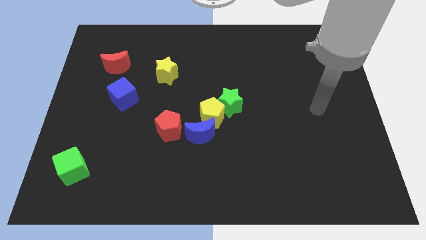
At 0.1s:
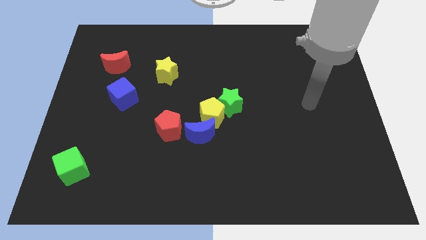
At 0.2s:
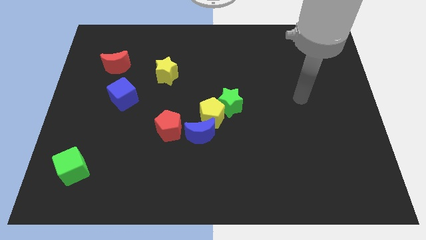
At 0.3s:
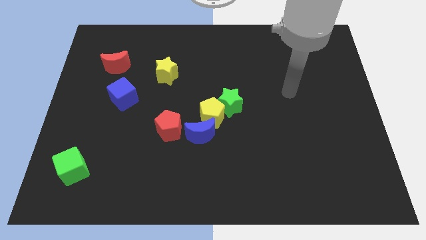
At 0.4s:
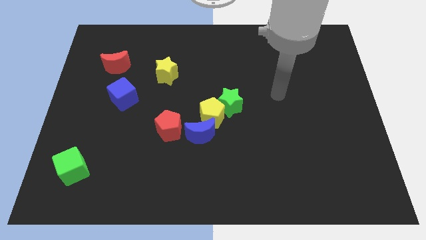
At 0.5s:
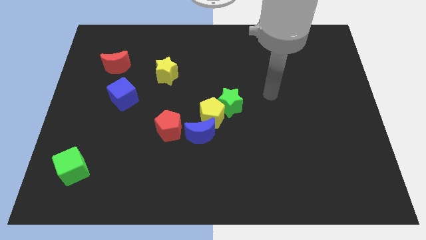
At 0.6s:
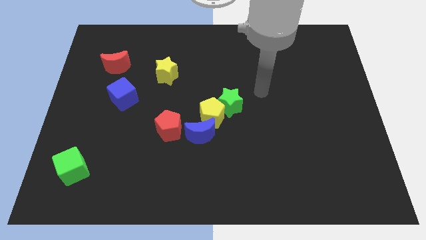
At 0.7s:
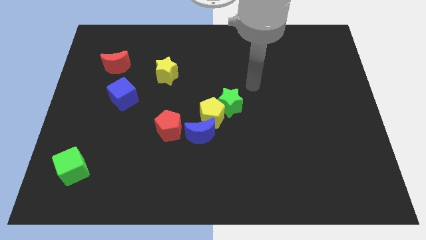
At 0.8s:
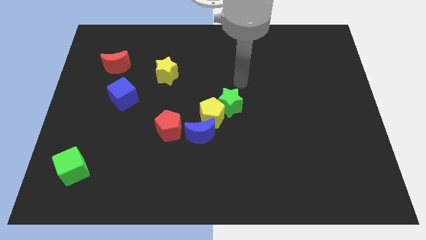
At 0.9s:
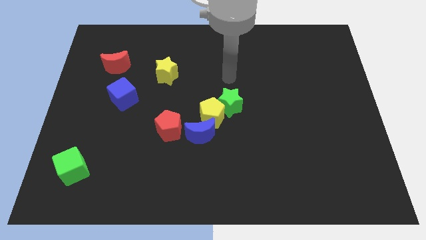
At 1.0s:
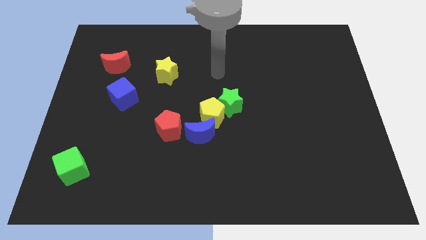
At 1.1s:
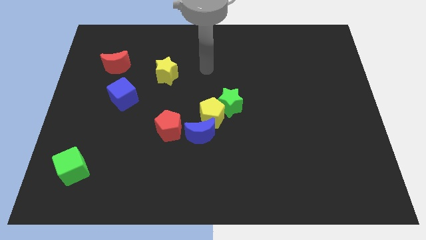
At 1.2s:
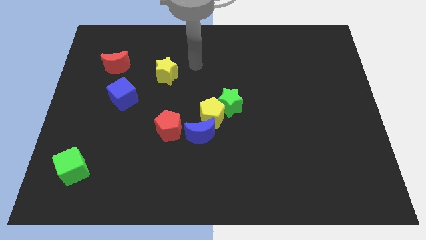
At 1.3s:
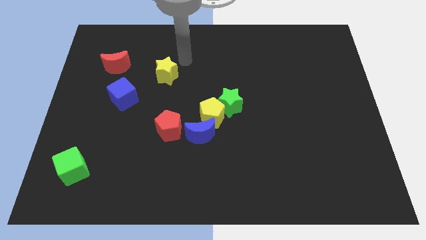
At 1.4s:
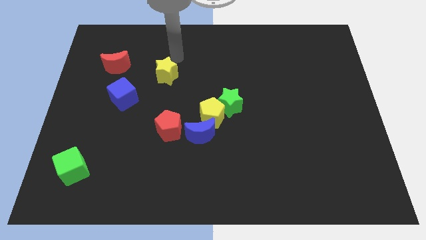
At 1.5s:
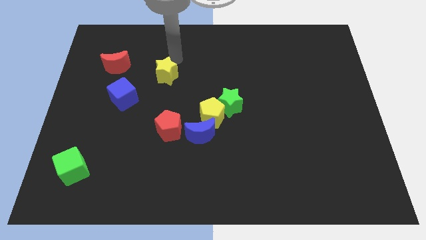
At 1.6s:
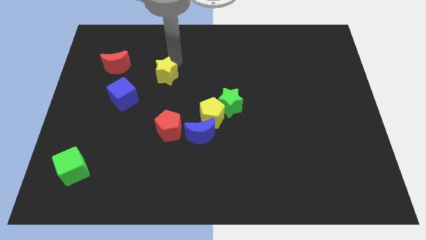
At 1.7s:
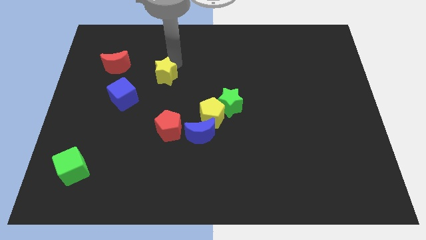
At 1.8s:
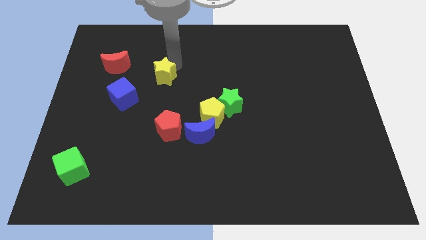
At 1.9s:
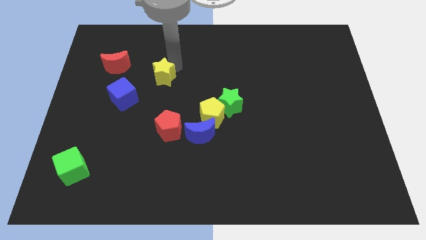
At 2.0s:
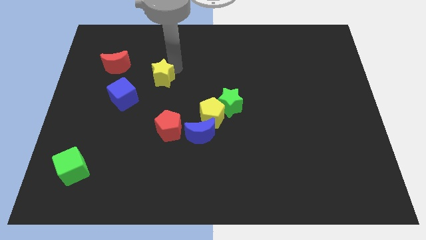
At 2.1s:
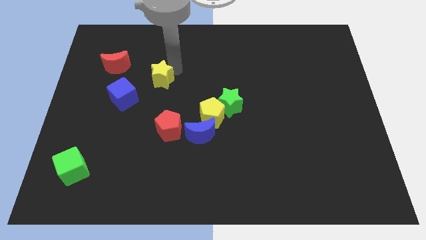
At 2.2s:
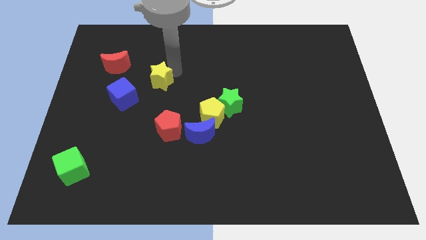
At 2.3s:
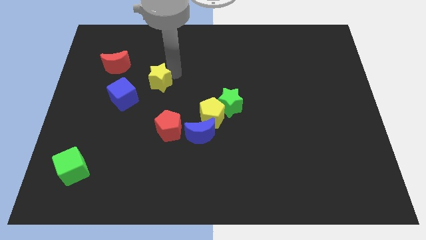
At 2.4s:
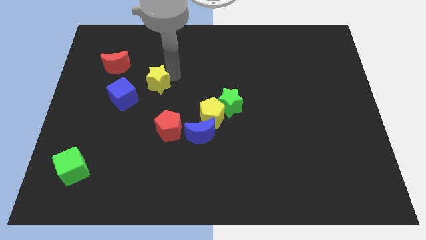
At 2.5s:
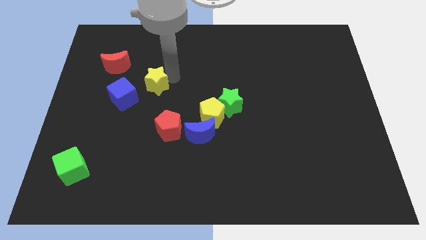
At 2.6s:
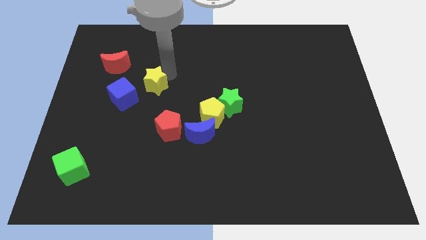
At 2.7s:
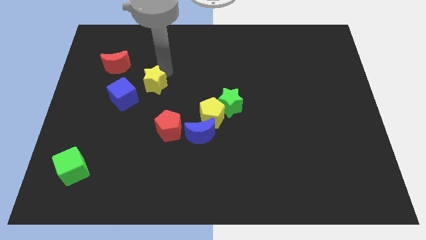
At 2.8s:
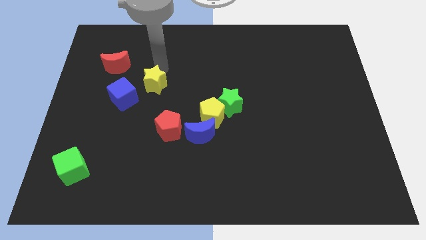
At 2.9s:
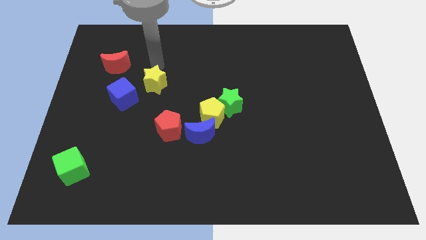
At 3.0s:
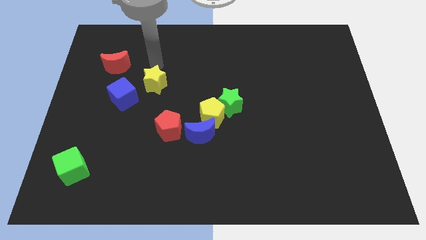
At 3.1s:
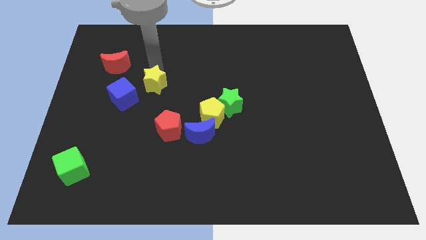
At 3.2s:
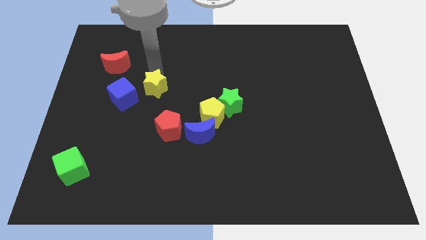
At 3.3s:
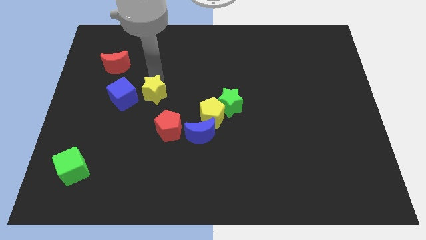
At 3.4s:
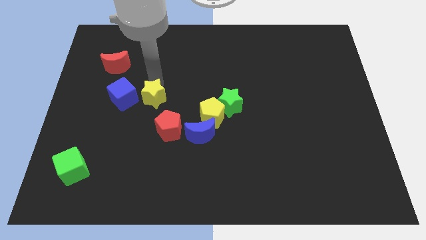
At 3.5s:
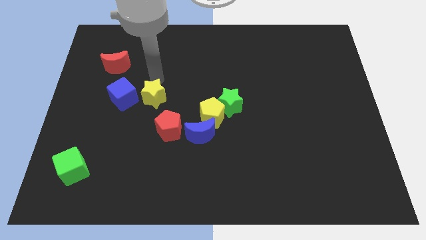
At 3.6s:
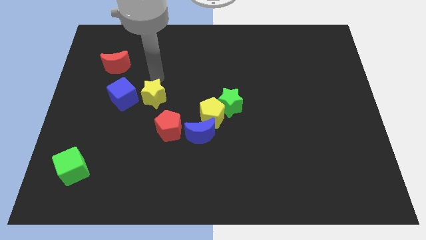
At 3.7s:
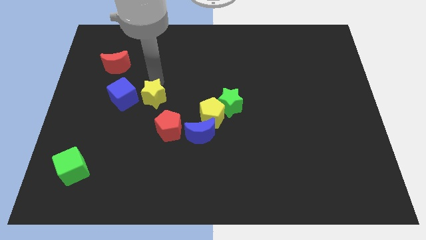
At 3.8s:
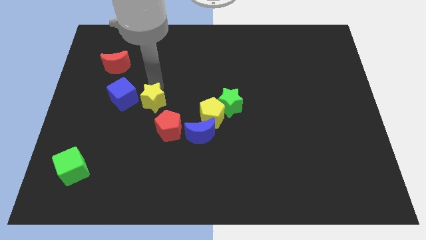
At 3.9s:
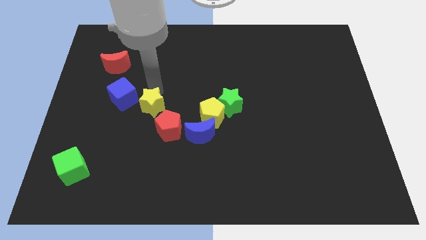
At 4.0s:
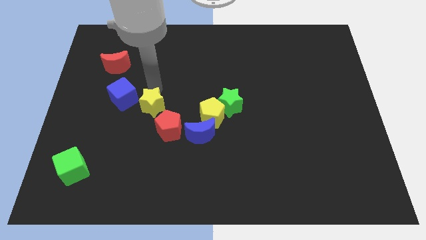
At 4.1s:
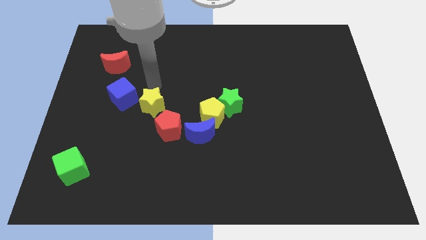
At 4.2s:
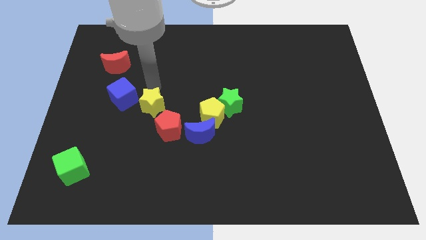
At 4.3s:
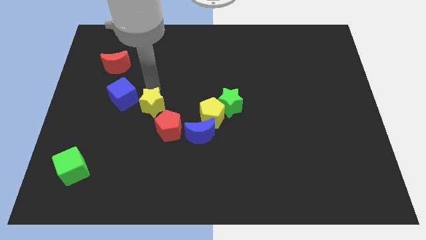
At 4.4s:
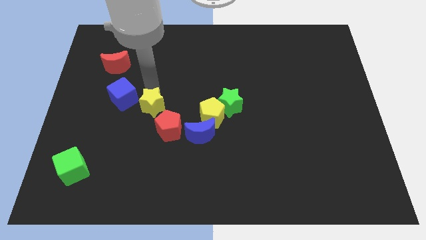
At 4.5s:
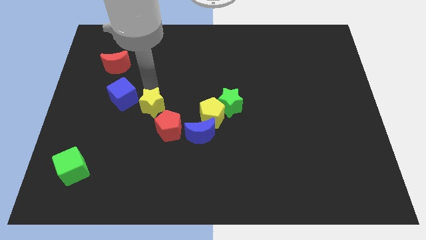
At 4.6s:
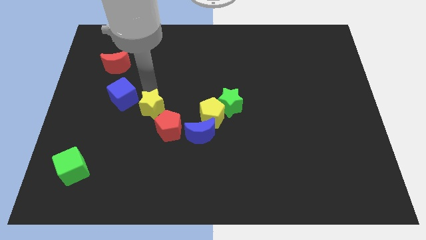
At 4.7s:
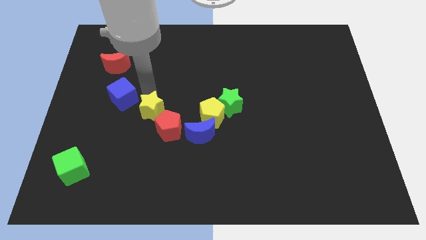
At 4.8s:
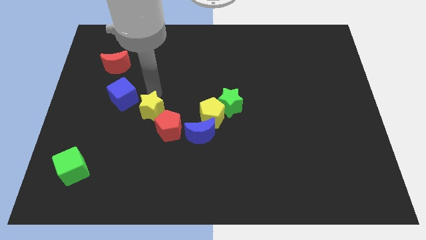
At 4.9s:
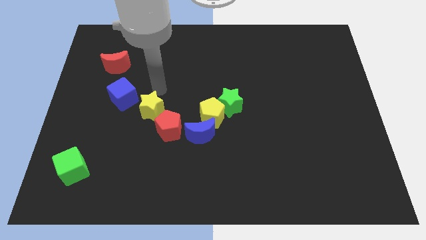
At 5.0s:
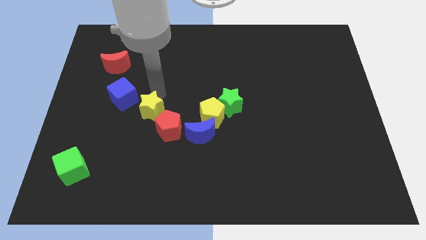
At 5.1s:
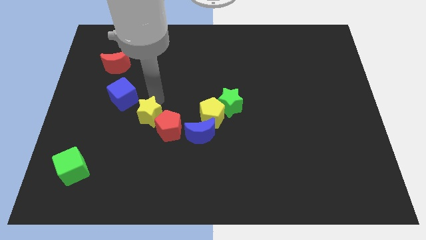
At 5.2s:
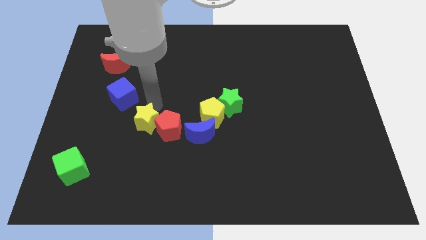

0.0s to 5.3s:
put the yellow star to the bottom left side of the red pentagon

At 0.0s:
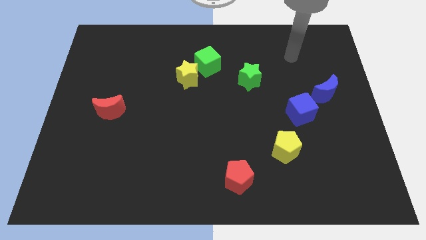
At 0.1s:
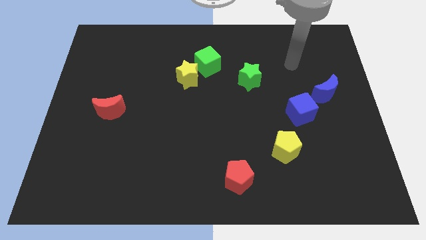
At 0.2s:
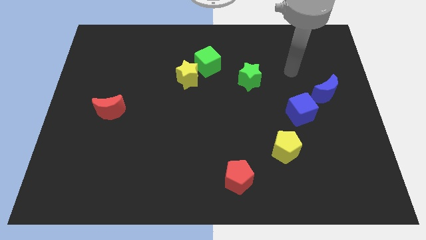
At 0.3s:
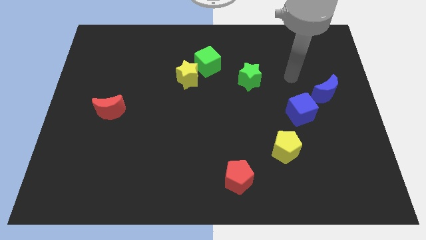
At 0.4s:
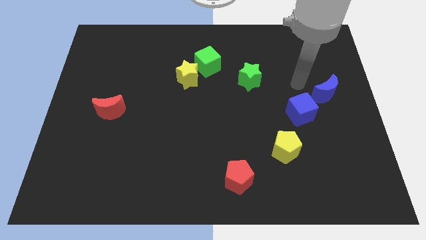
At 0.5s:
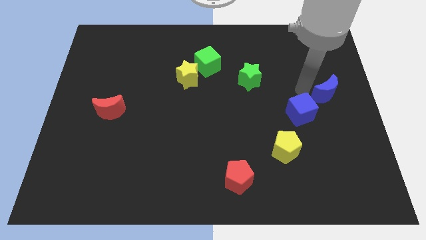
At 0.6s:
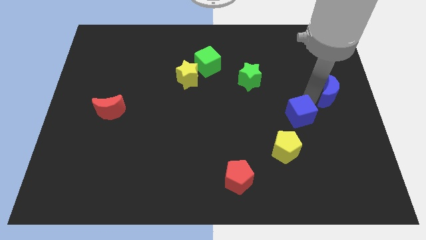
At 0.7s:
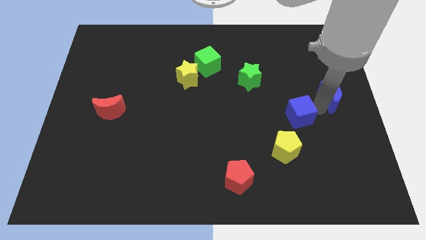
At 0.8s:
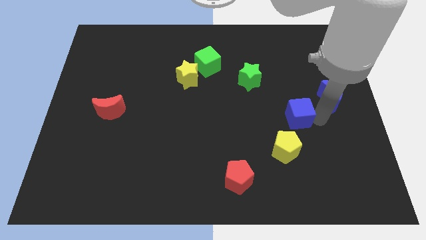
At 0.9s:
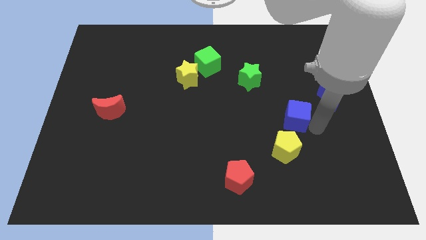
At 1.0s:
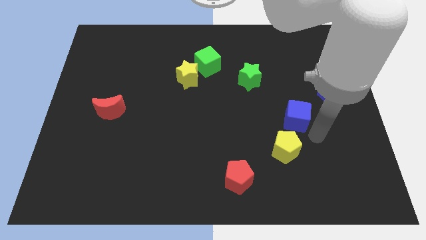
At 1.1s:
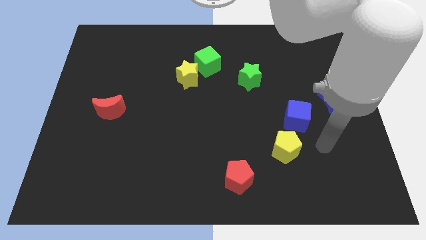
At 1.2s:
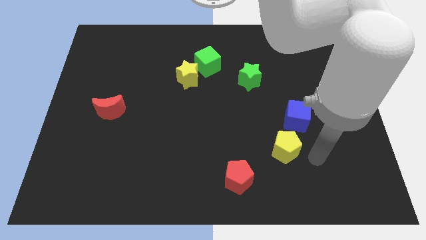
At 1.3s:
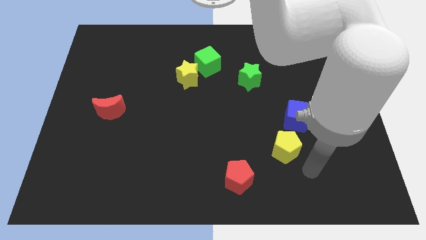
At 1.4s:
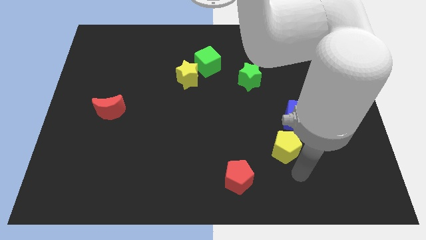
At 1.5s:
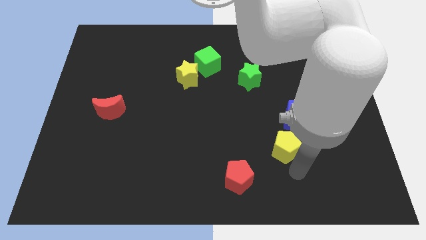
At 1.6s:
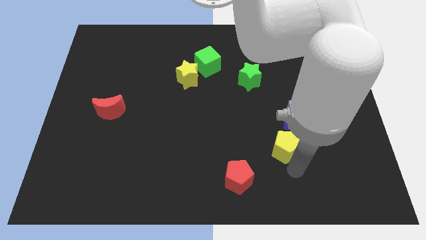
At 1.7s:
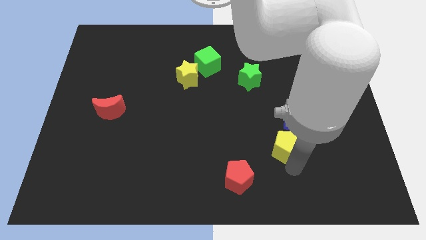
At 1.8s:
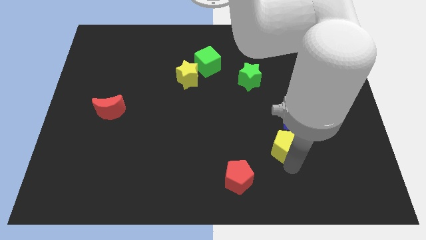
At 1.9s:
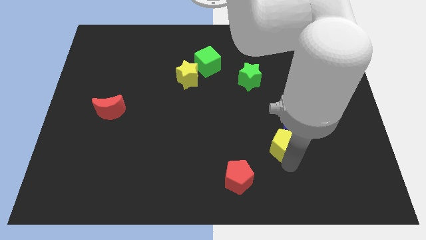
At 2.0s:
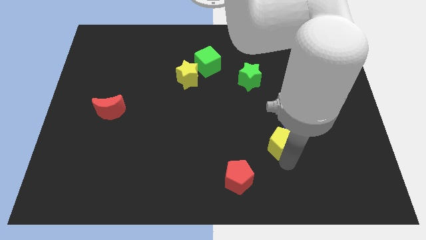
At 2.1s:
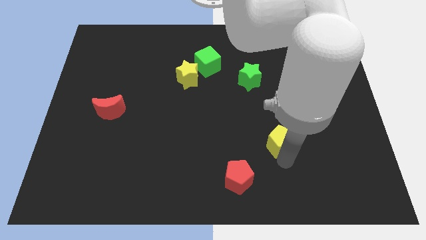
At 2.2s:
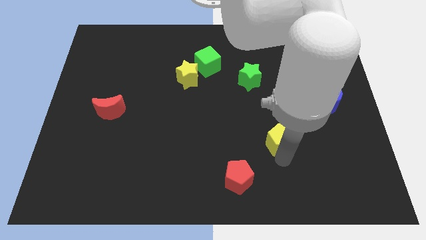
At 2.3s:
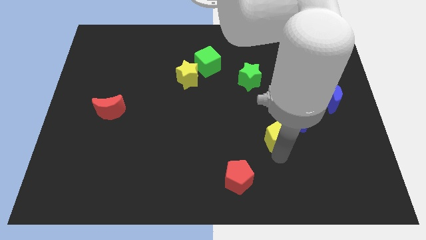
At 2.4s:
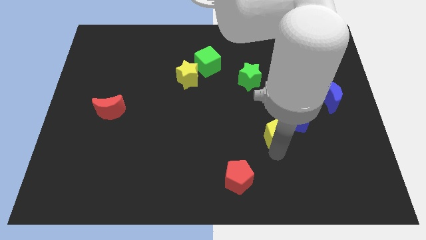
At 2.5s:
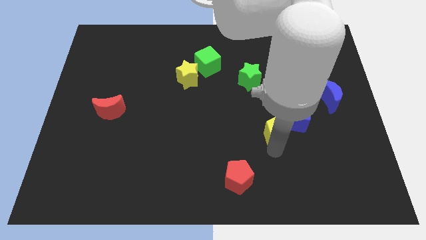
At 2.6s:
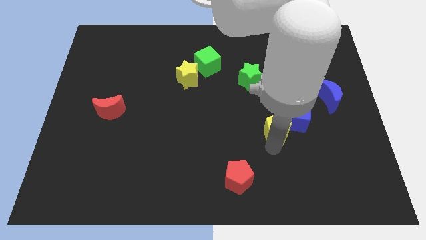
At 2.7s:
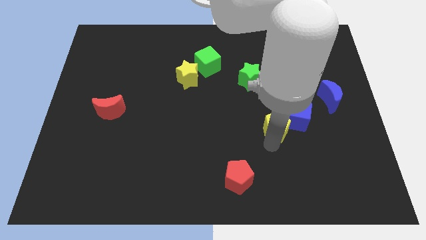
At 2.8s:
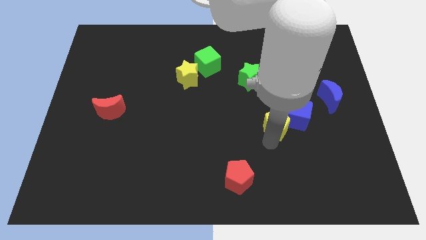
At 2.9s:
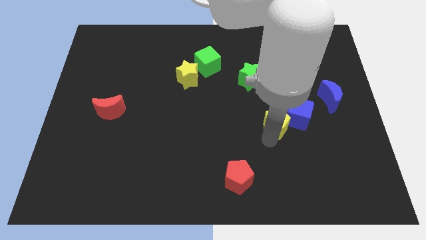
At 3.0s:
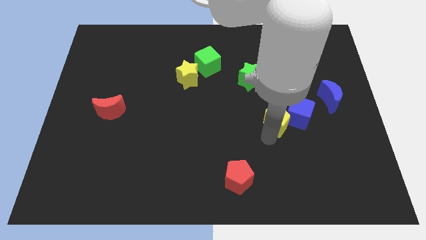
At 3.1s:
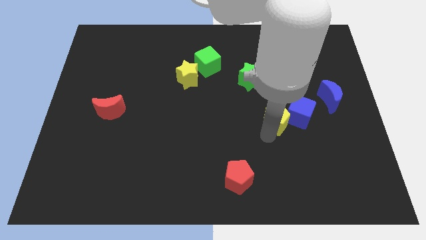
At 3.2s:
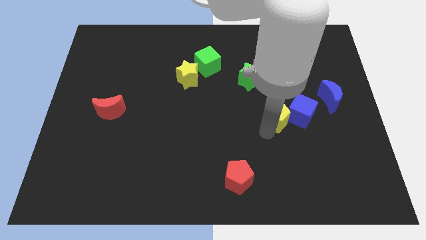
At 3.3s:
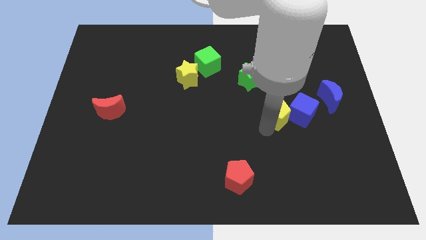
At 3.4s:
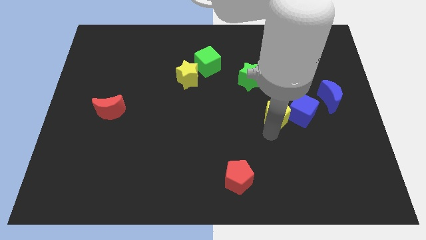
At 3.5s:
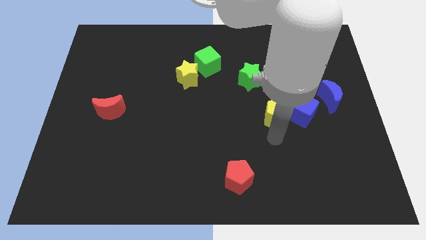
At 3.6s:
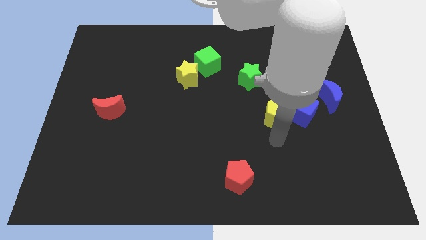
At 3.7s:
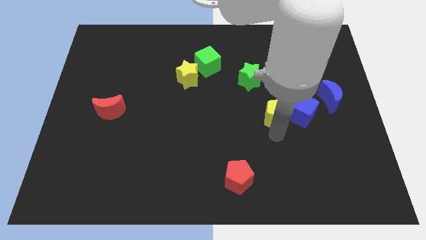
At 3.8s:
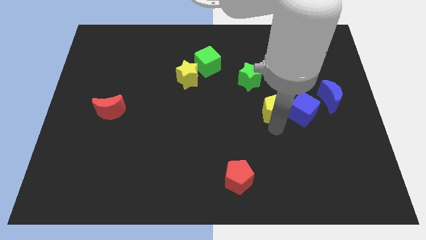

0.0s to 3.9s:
push the yellow pentagon diagonally down and to the right of the green star
